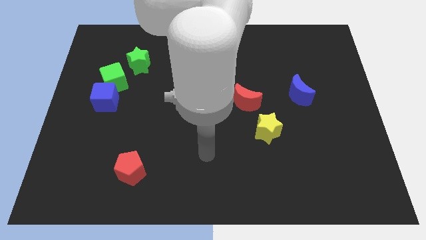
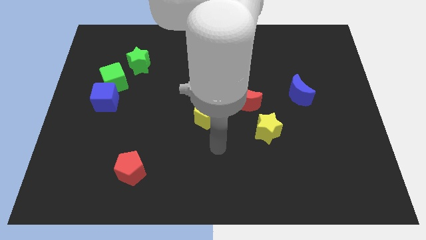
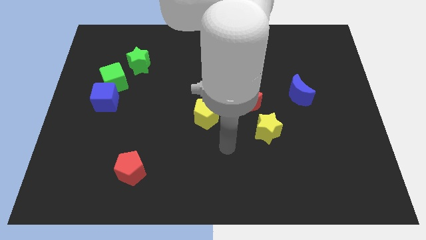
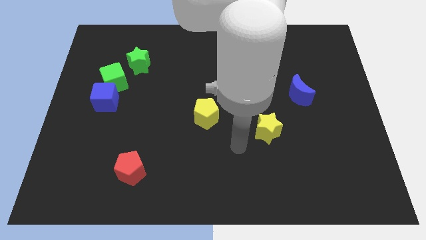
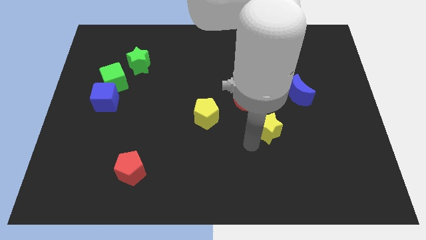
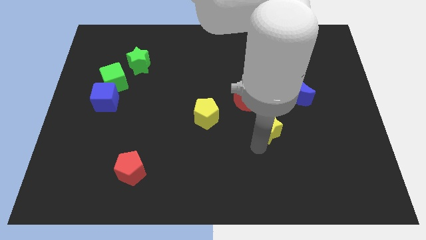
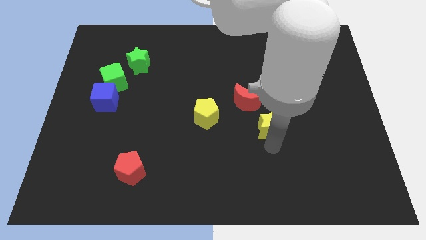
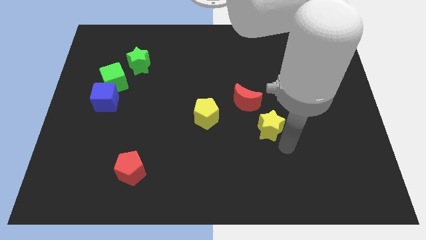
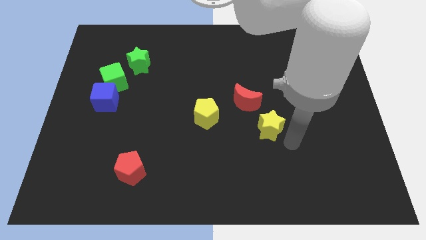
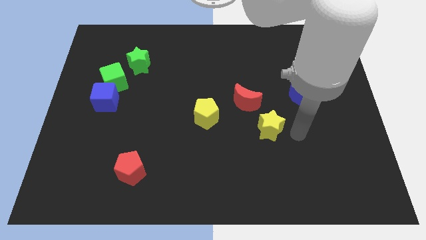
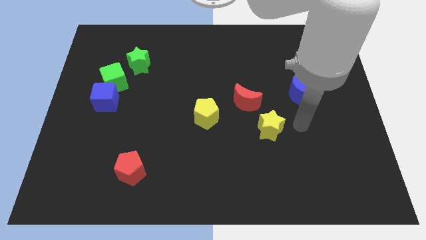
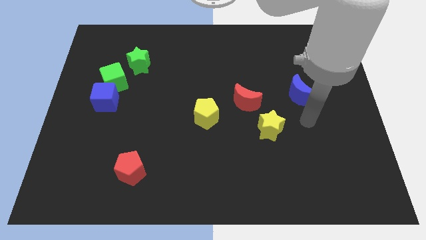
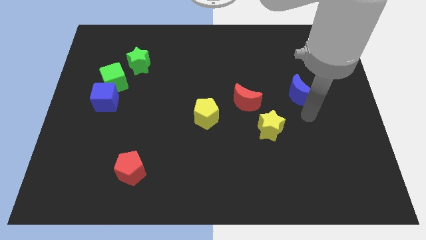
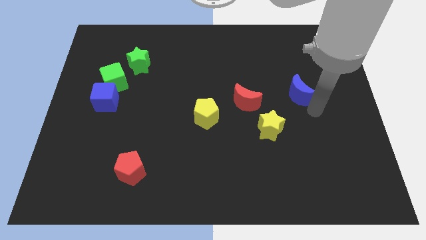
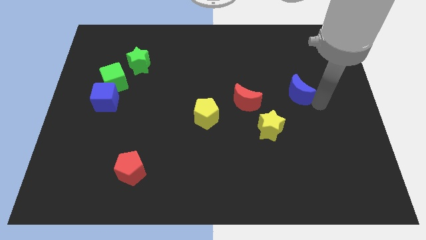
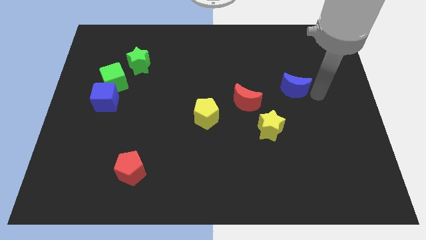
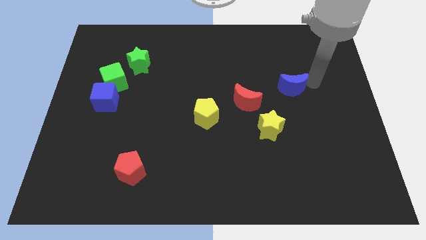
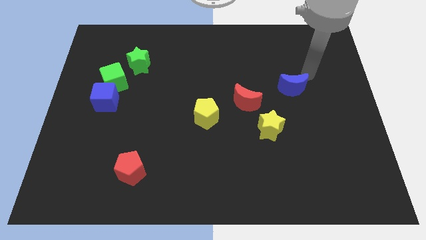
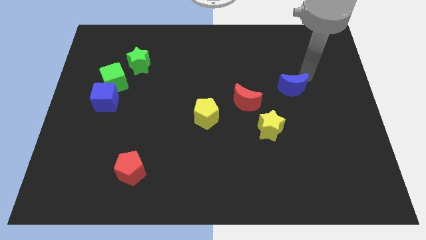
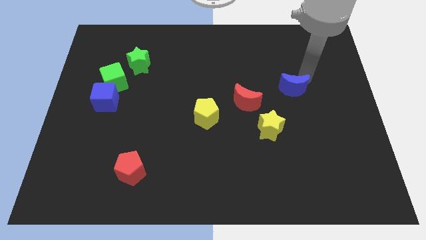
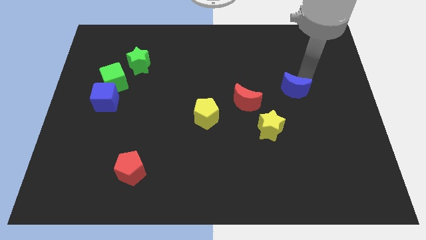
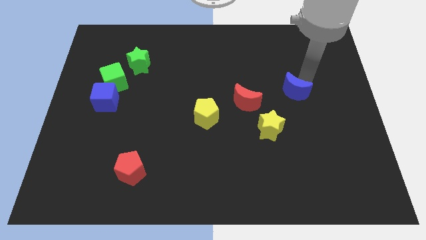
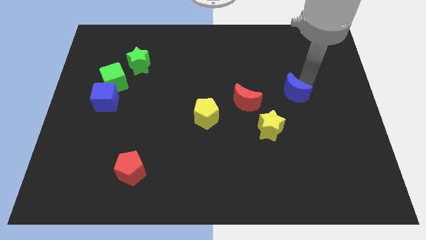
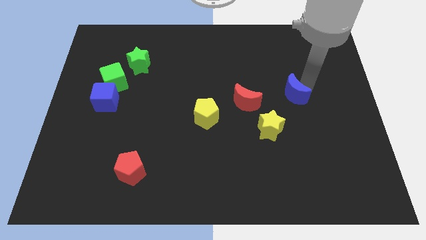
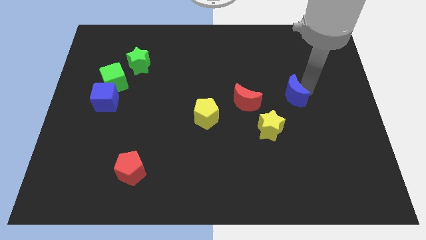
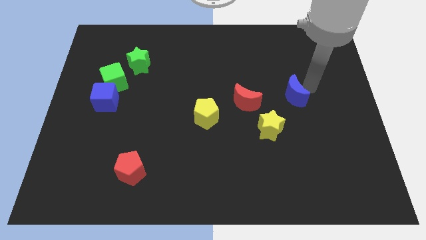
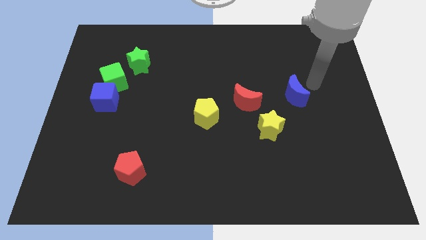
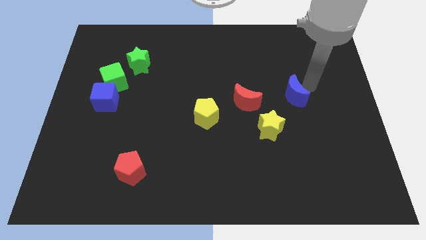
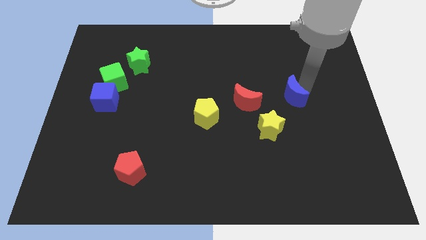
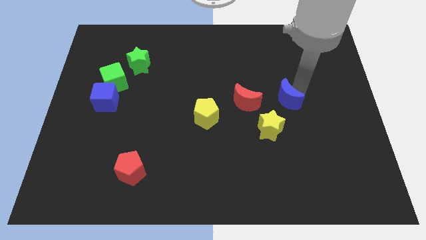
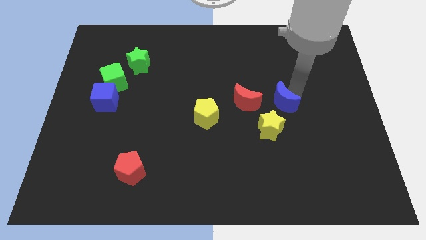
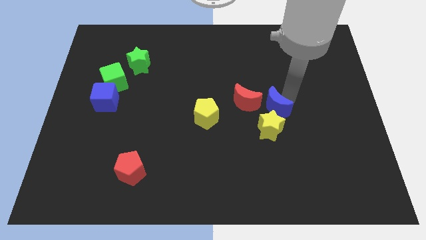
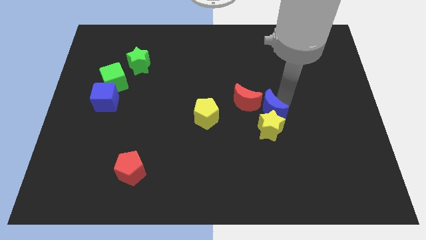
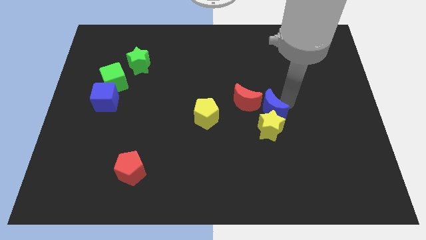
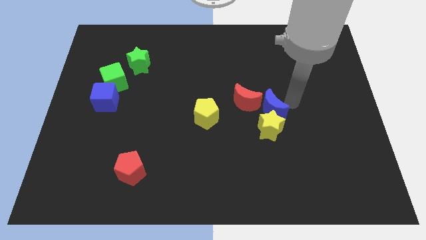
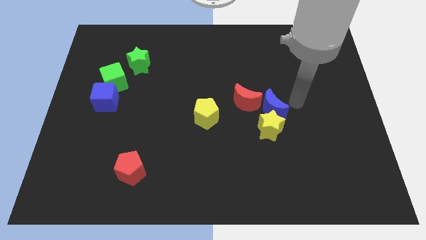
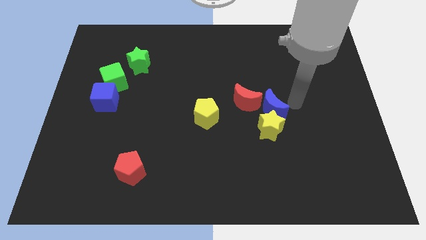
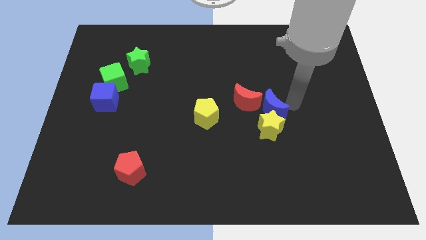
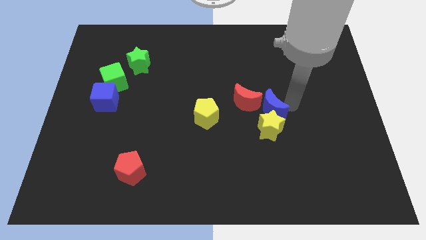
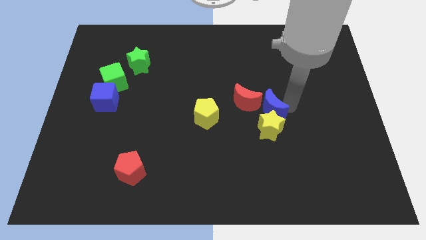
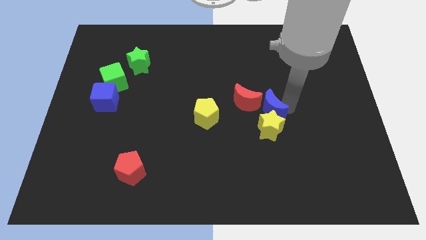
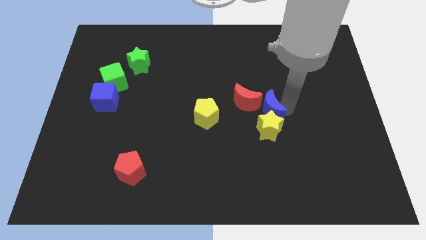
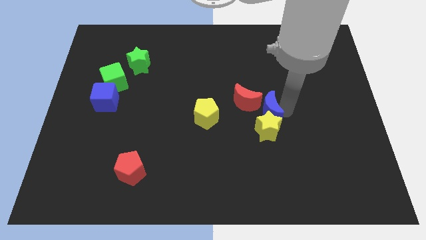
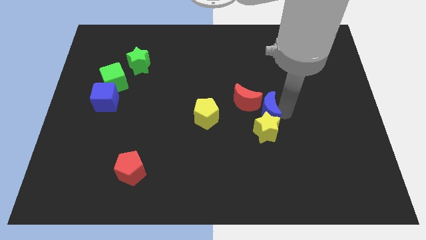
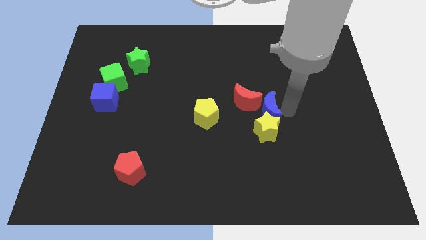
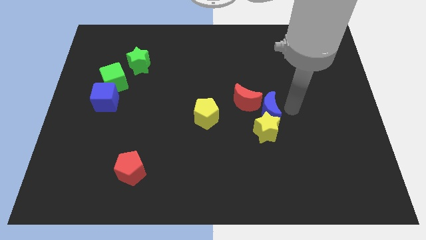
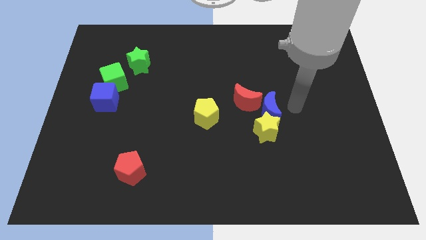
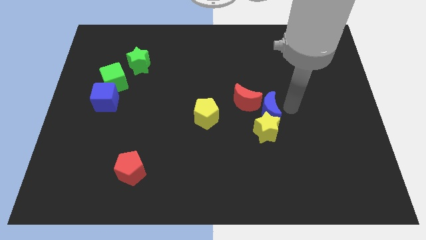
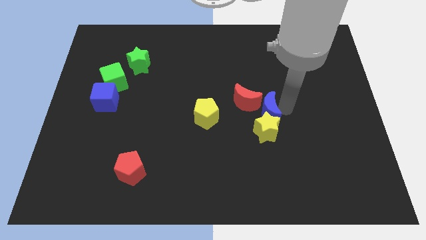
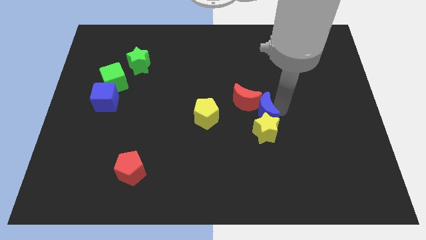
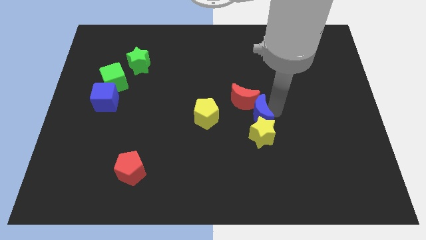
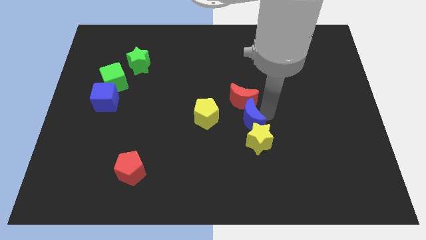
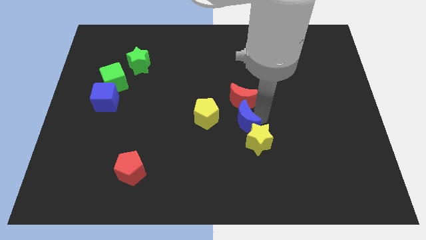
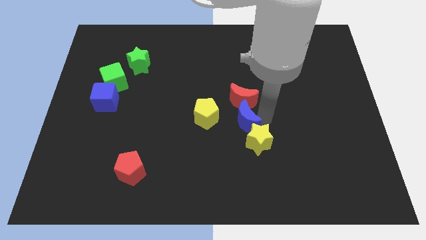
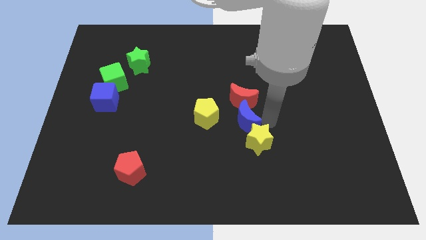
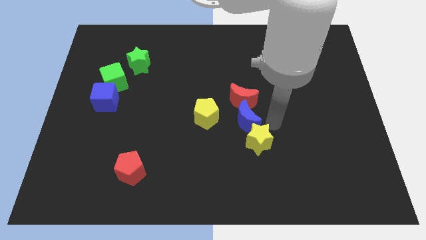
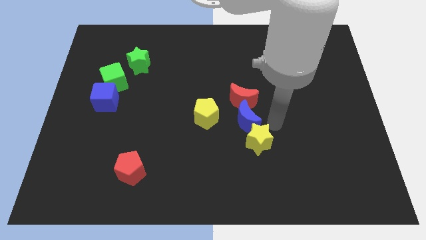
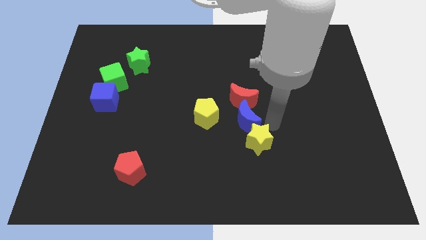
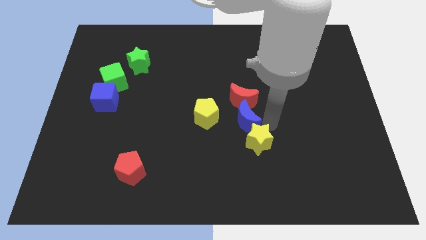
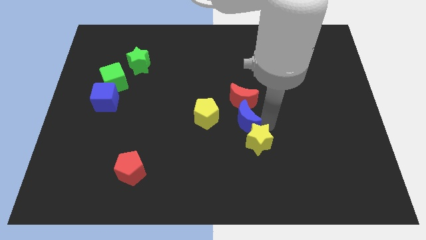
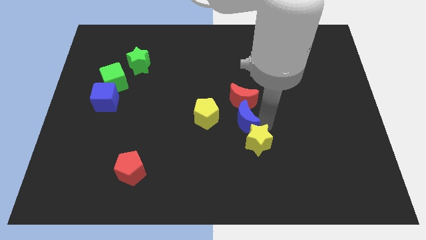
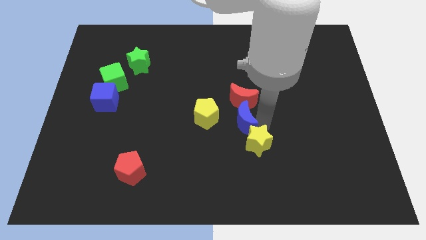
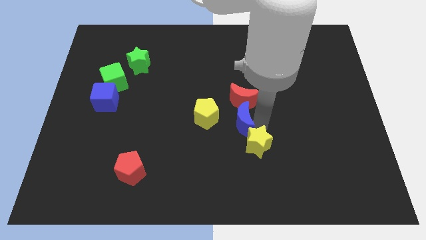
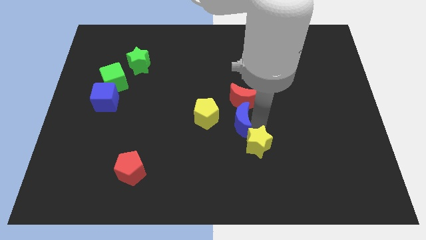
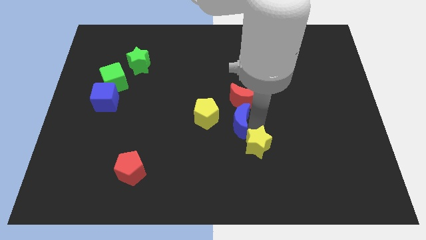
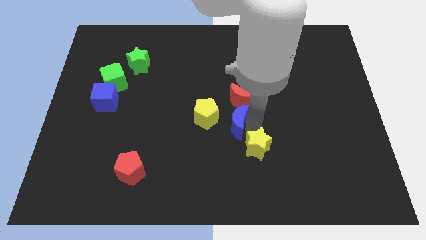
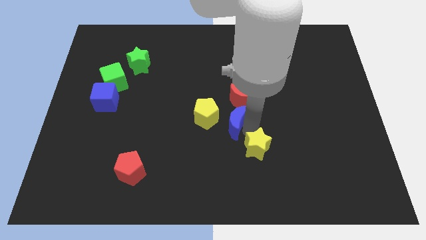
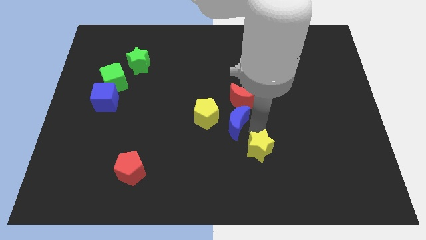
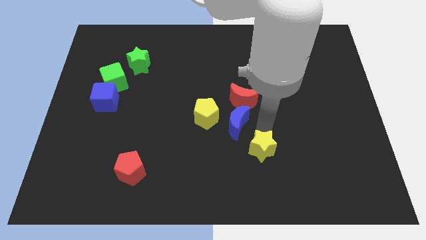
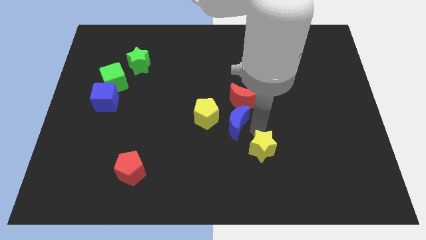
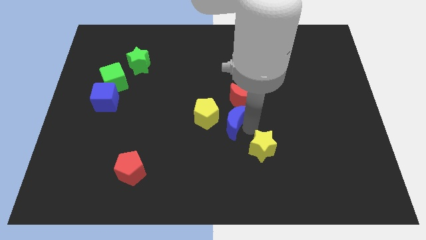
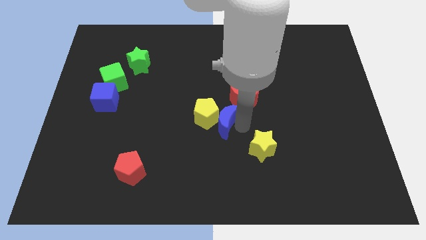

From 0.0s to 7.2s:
slide the blue moon close to the yellow pentagon
